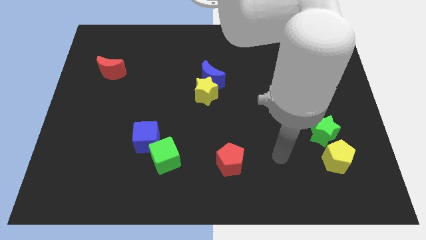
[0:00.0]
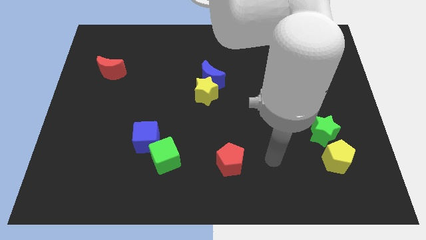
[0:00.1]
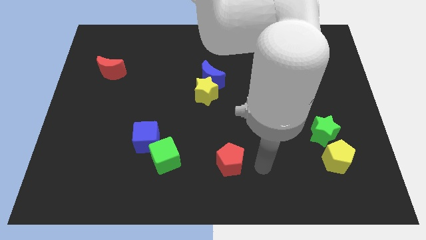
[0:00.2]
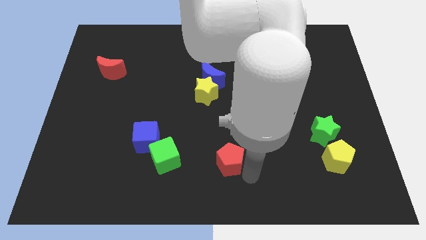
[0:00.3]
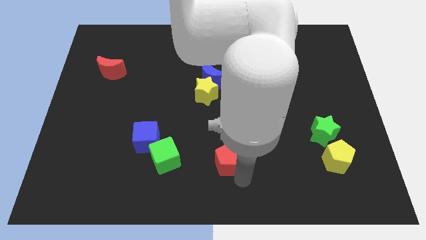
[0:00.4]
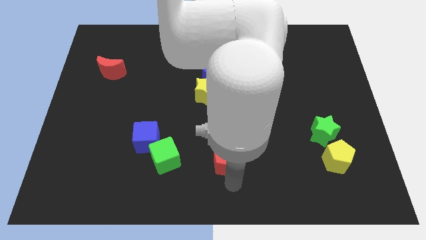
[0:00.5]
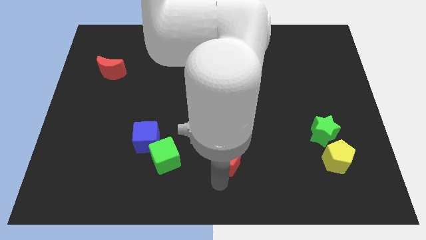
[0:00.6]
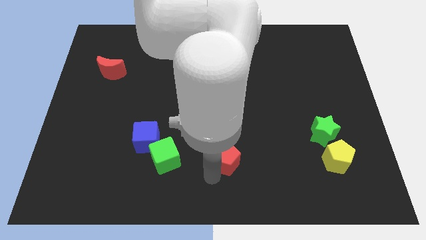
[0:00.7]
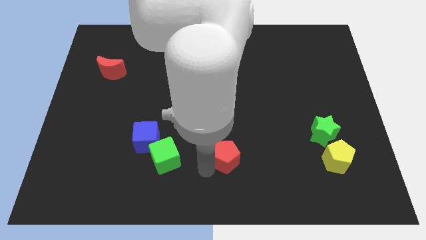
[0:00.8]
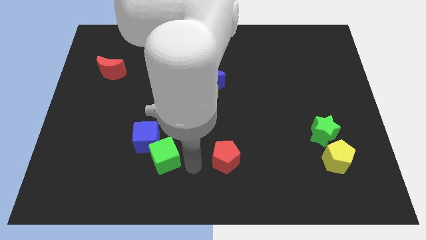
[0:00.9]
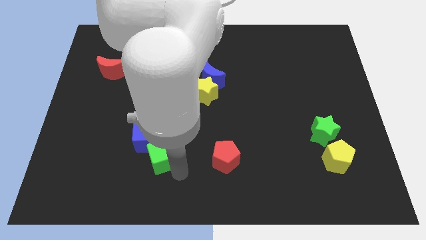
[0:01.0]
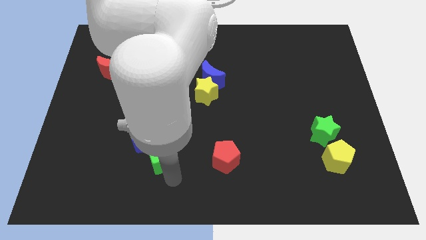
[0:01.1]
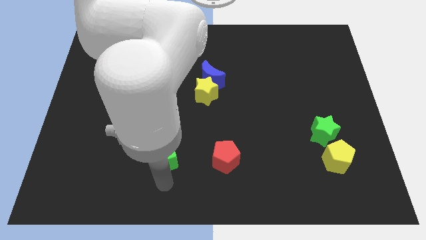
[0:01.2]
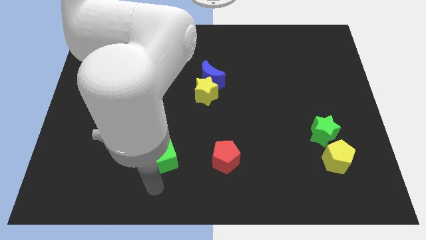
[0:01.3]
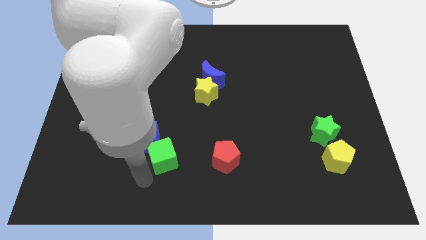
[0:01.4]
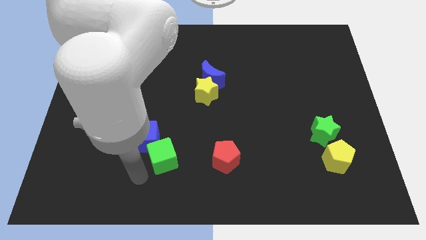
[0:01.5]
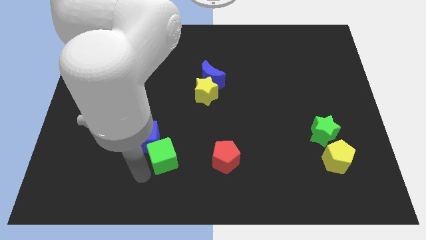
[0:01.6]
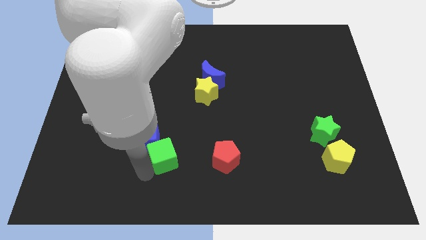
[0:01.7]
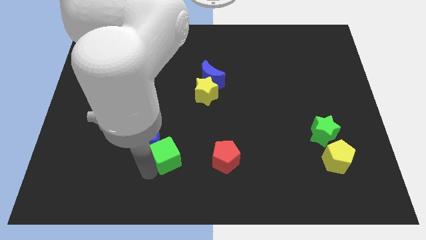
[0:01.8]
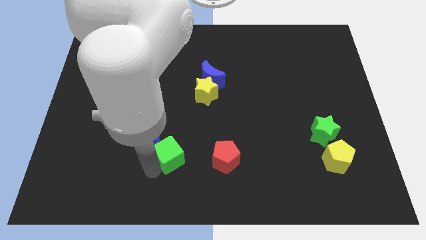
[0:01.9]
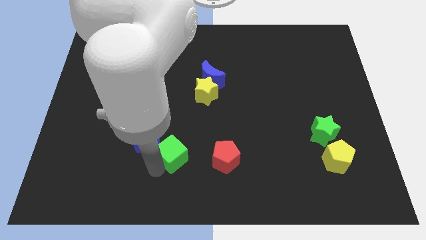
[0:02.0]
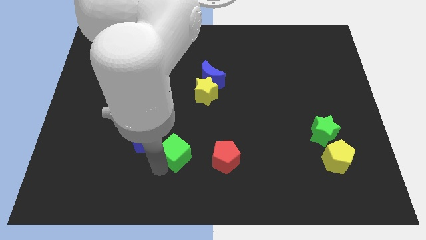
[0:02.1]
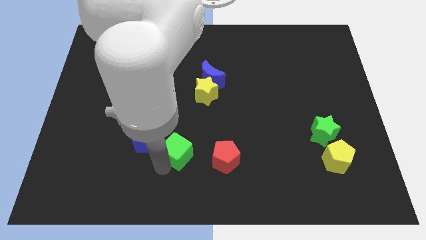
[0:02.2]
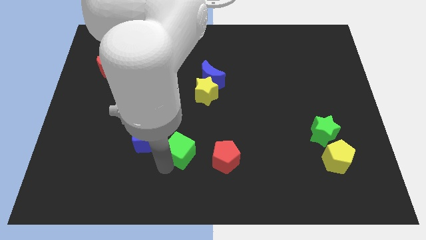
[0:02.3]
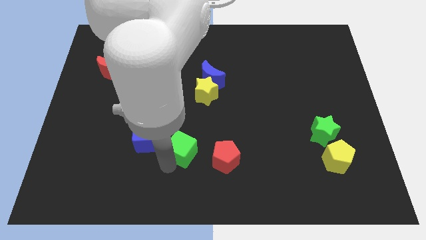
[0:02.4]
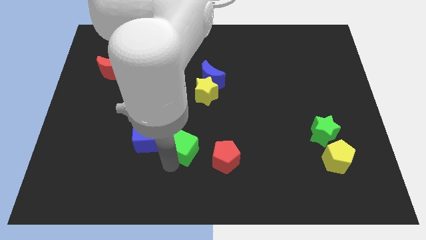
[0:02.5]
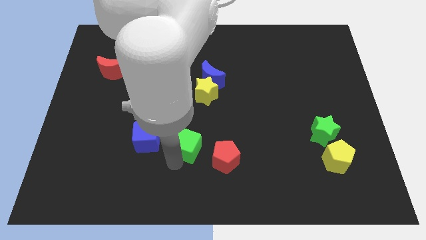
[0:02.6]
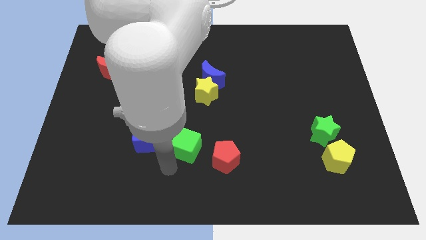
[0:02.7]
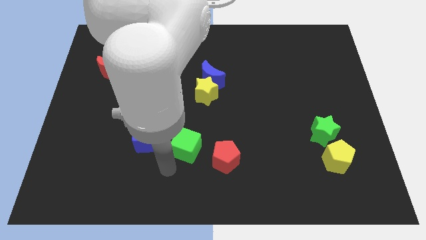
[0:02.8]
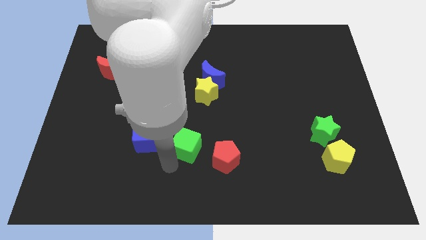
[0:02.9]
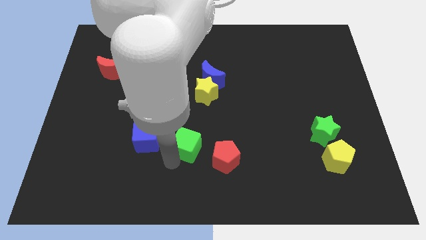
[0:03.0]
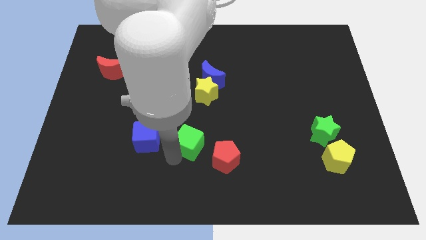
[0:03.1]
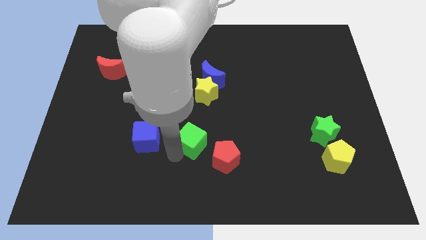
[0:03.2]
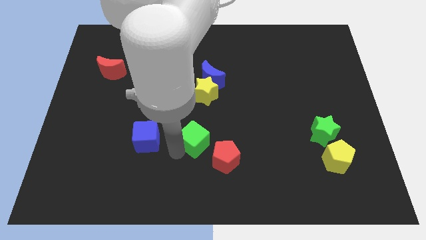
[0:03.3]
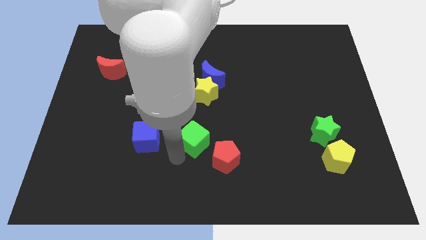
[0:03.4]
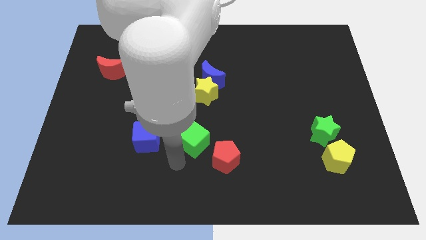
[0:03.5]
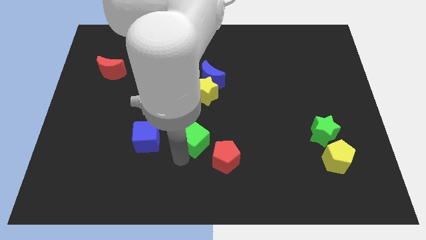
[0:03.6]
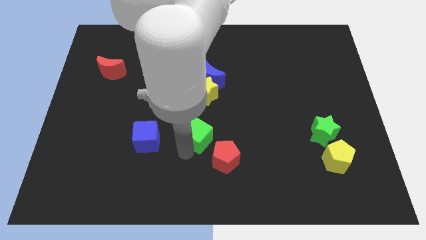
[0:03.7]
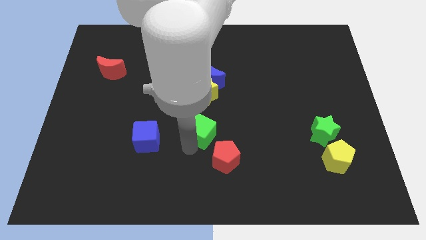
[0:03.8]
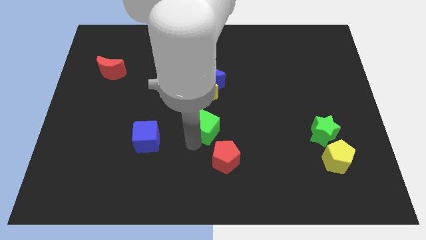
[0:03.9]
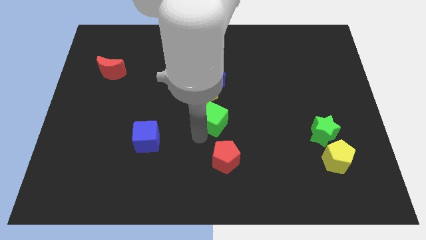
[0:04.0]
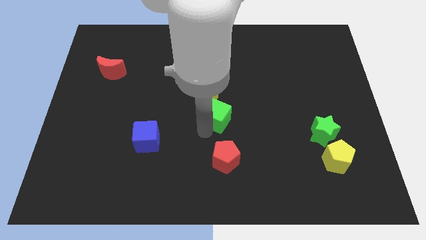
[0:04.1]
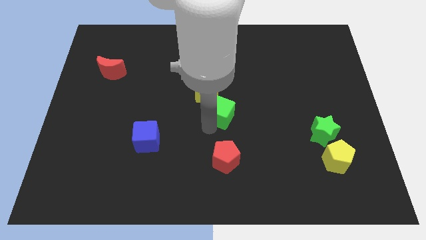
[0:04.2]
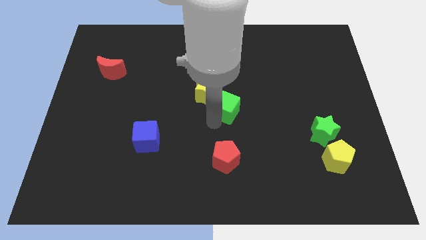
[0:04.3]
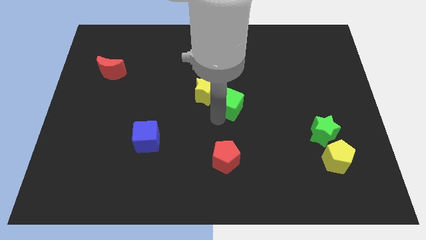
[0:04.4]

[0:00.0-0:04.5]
move the green cube upwards and right diagonally

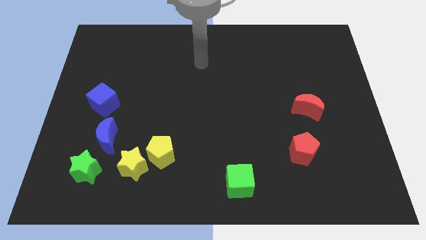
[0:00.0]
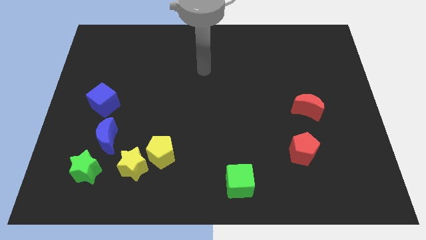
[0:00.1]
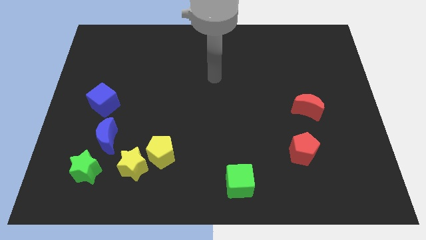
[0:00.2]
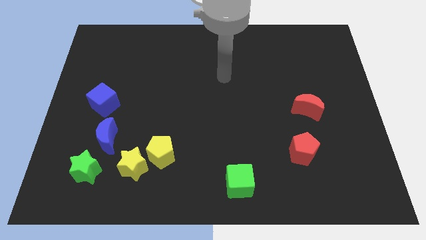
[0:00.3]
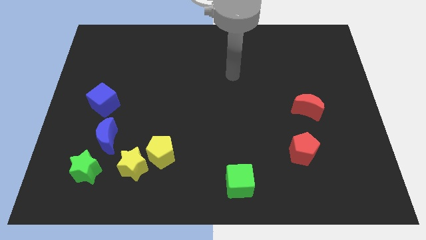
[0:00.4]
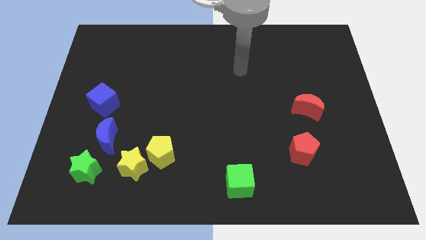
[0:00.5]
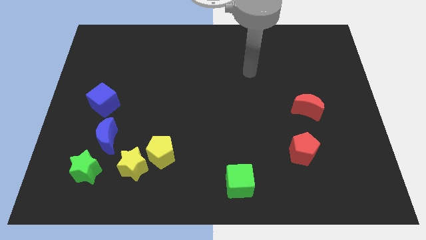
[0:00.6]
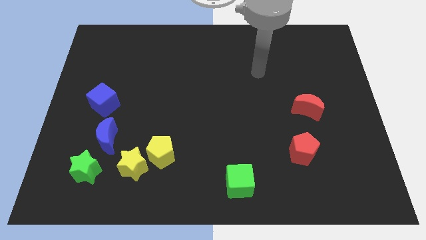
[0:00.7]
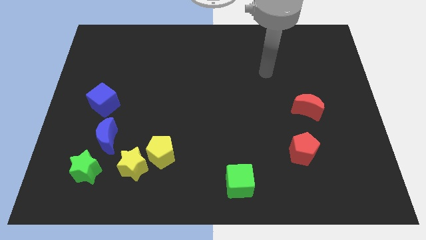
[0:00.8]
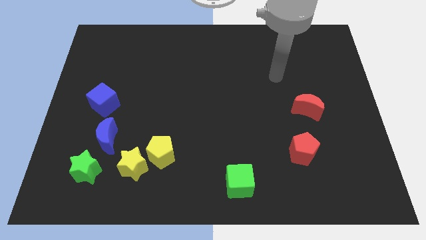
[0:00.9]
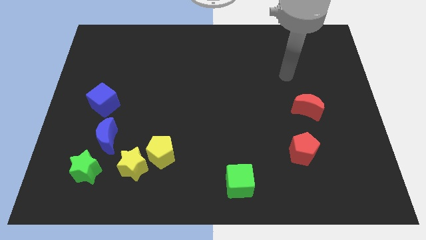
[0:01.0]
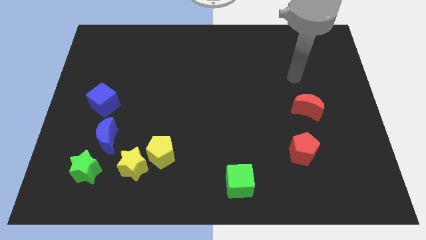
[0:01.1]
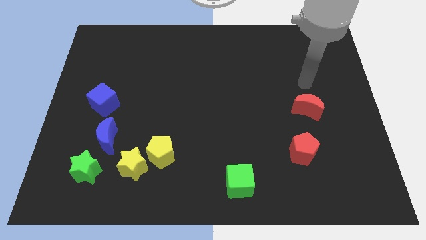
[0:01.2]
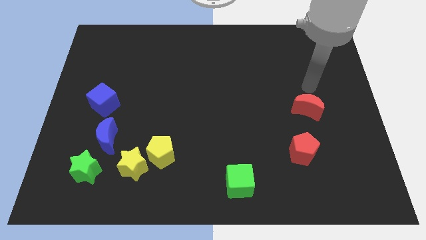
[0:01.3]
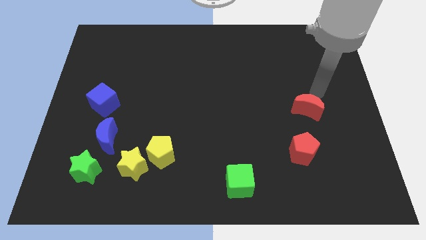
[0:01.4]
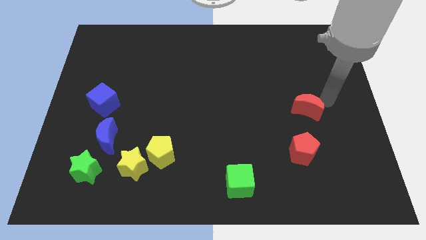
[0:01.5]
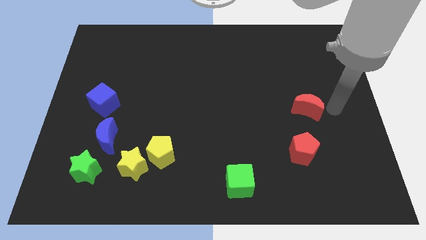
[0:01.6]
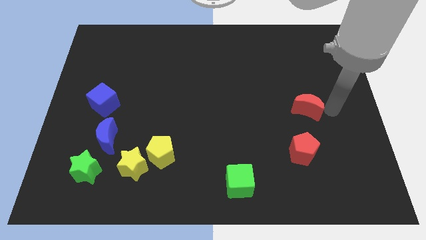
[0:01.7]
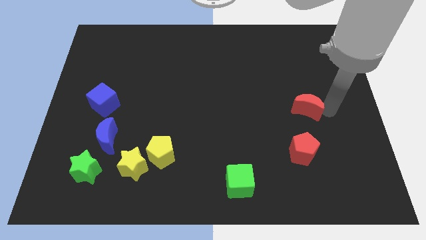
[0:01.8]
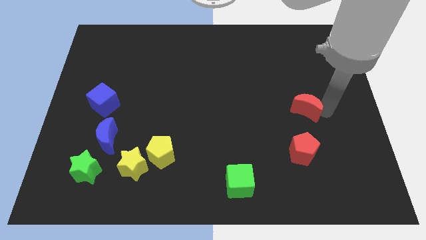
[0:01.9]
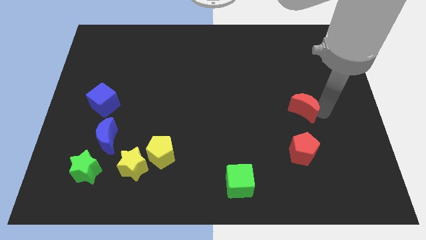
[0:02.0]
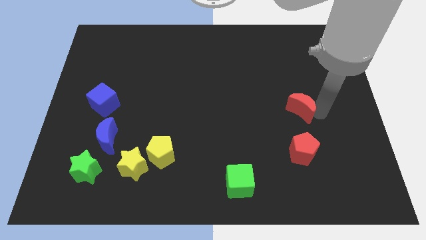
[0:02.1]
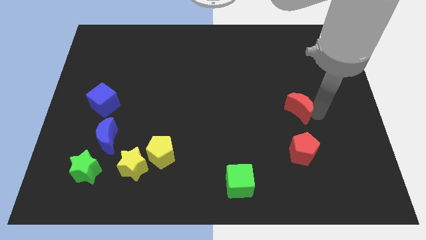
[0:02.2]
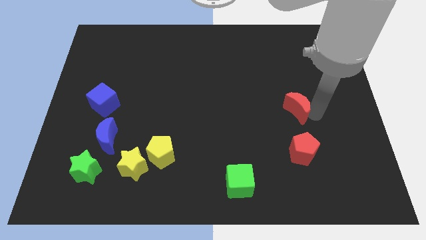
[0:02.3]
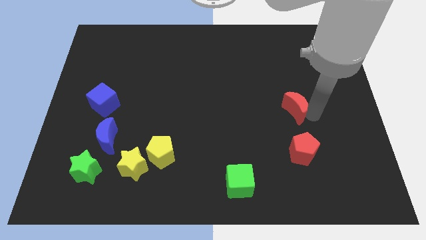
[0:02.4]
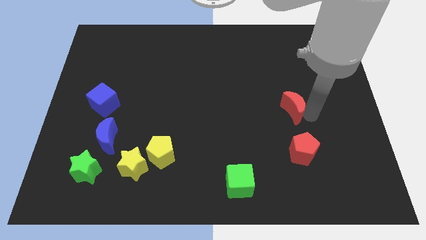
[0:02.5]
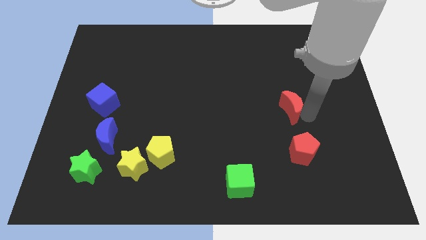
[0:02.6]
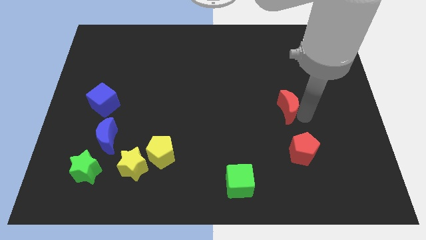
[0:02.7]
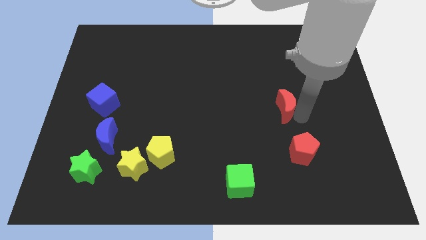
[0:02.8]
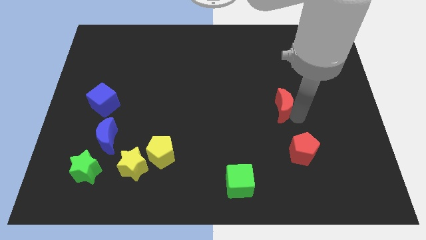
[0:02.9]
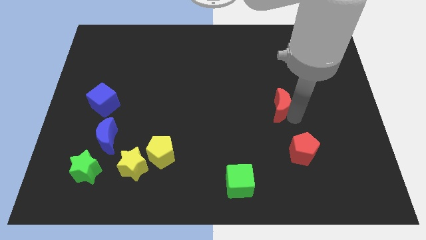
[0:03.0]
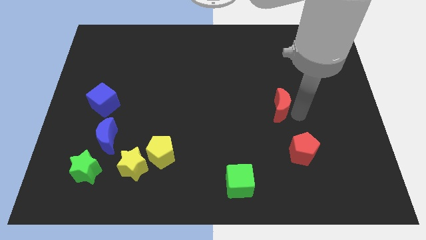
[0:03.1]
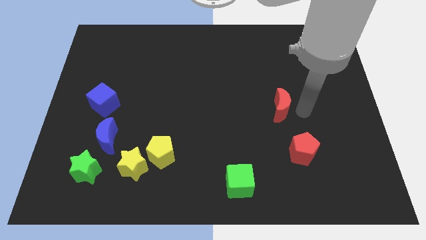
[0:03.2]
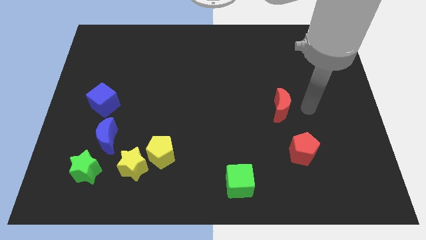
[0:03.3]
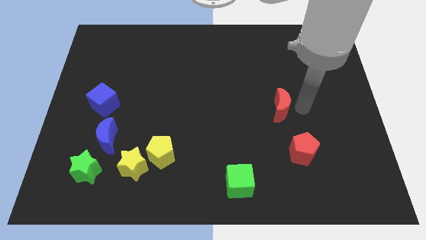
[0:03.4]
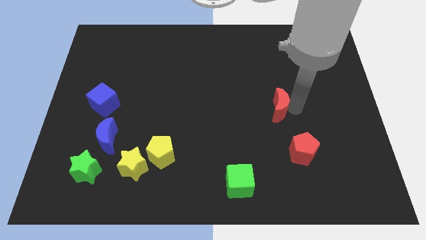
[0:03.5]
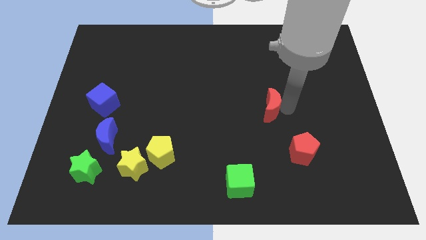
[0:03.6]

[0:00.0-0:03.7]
slightly push the red moon left
